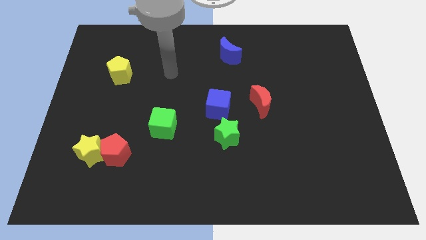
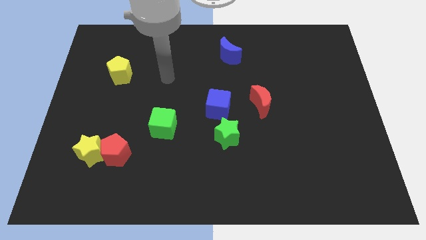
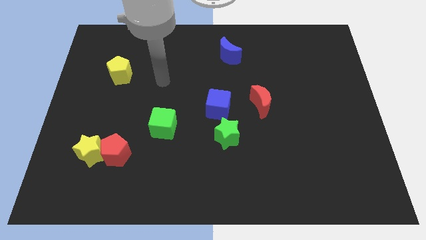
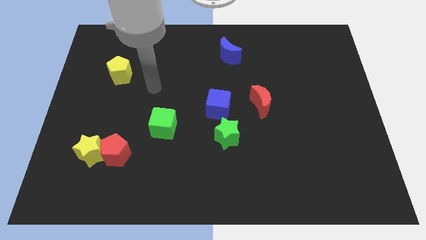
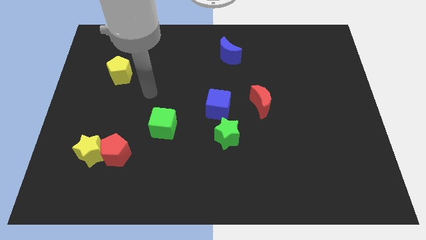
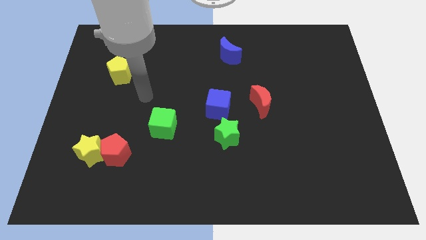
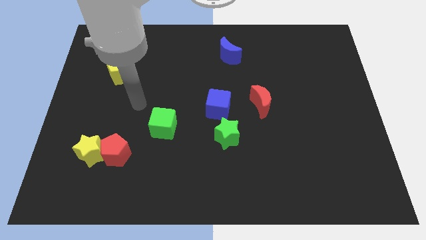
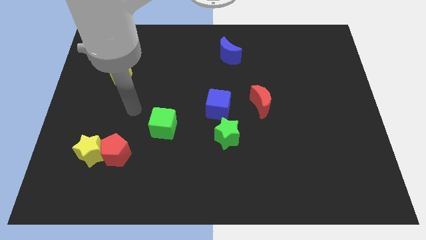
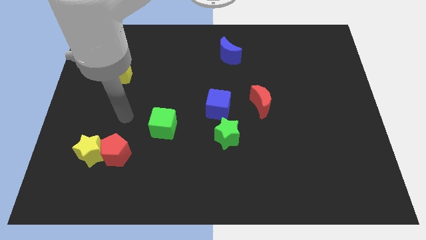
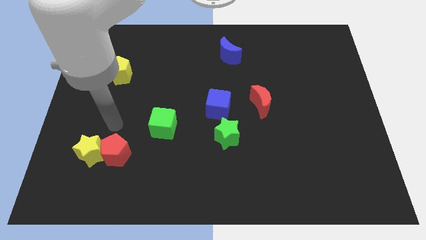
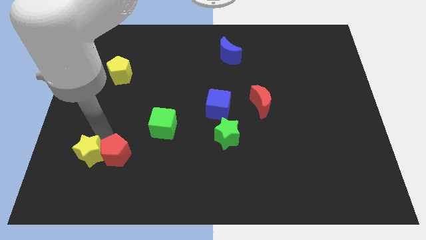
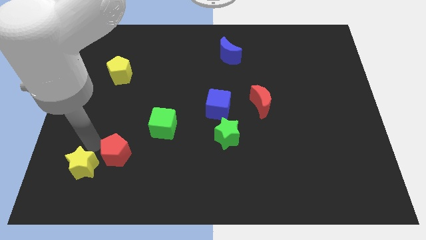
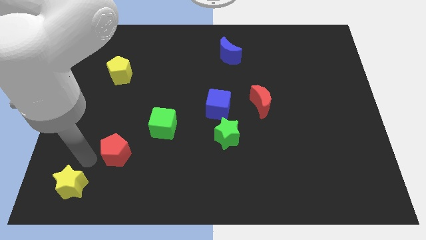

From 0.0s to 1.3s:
pull the red pentagon apart from the yellow star

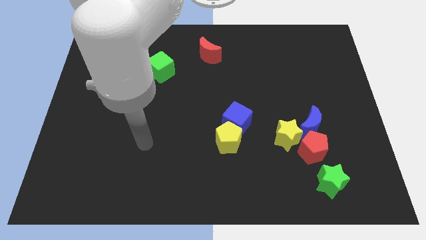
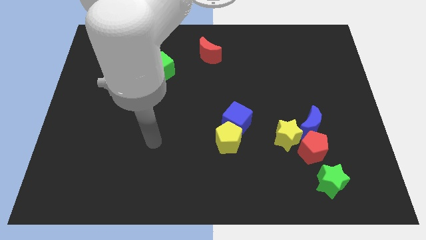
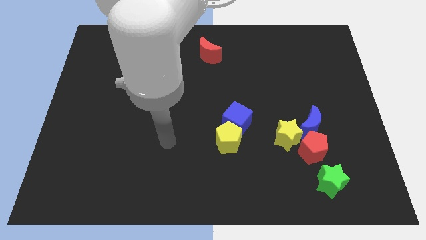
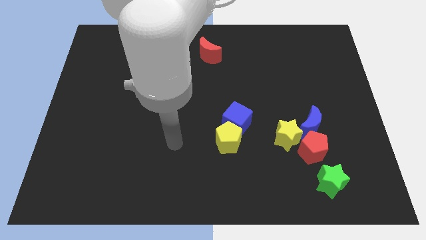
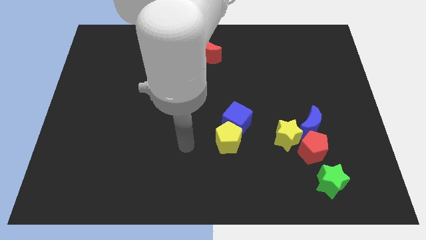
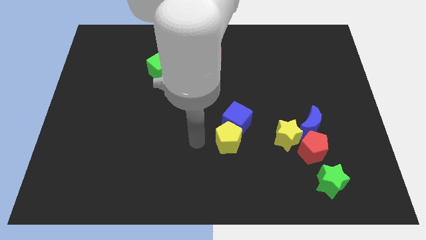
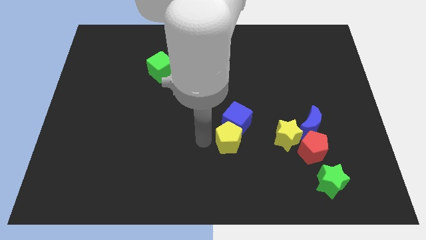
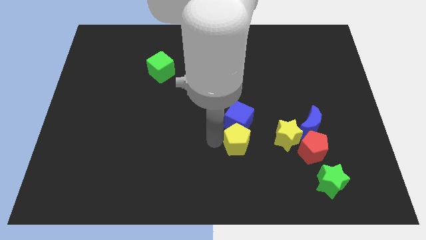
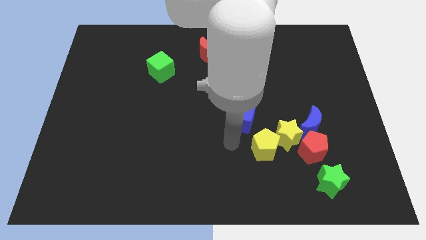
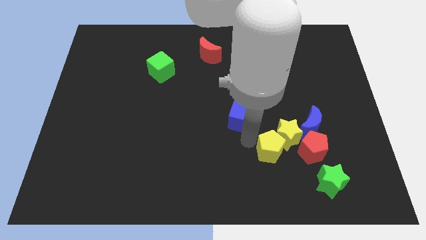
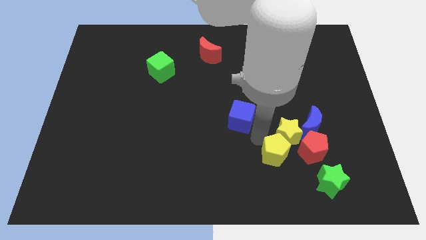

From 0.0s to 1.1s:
separate the blue cube from the yellow pentagon

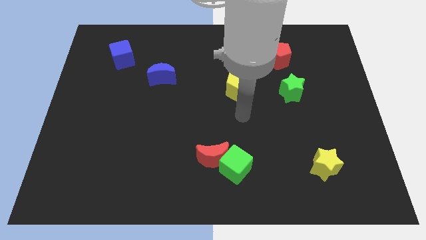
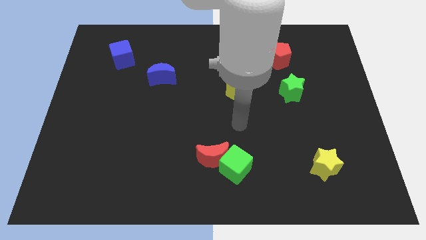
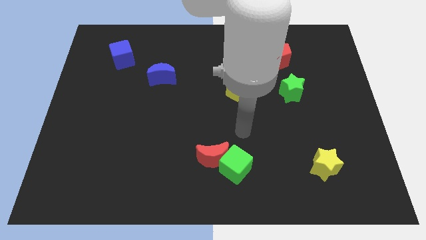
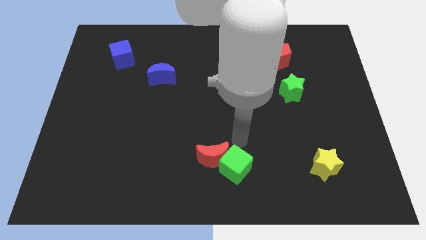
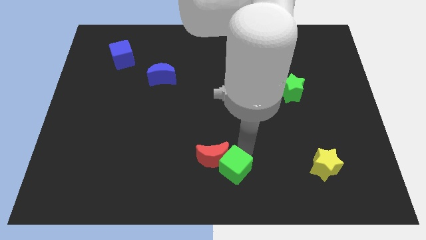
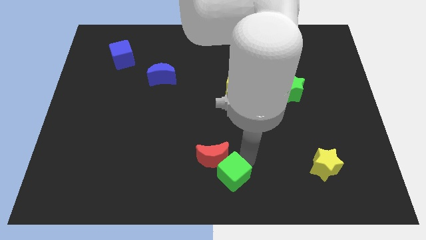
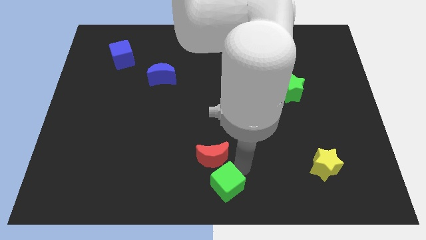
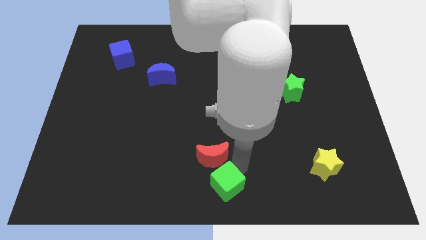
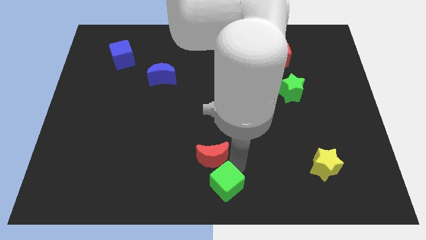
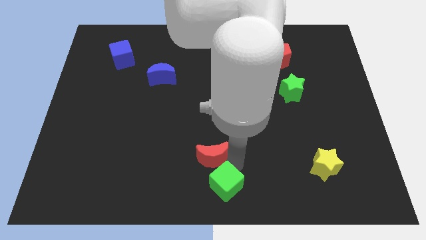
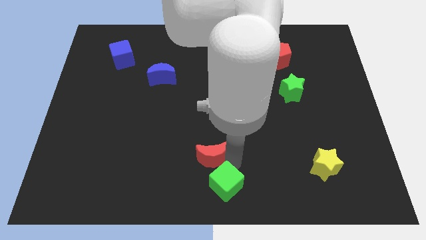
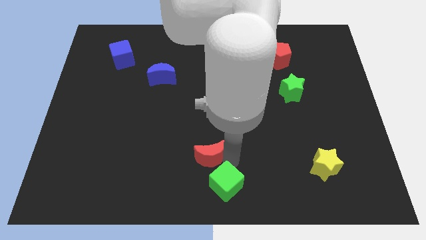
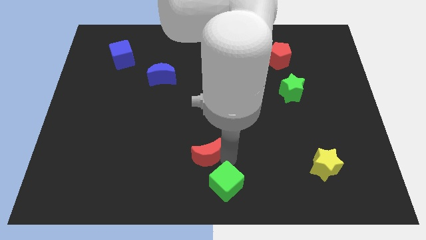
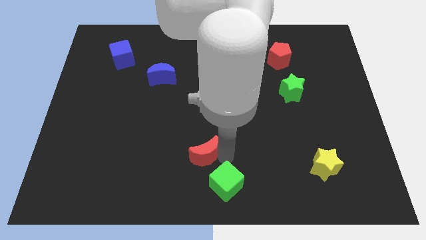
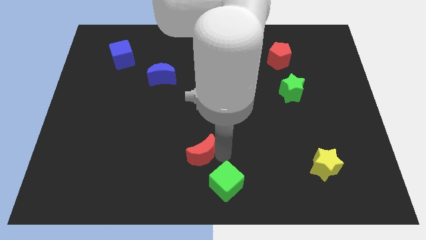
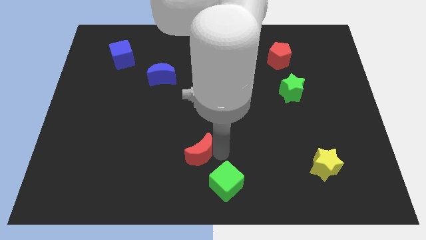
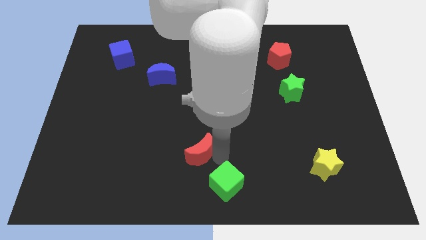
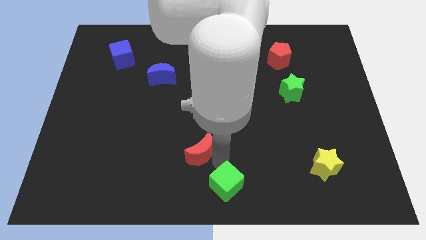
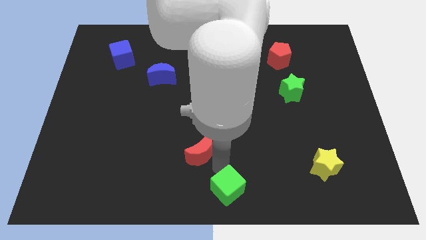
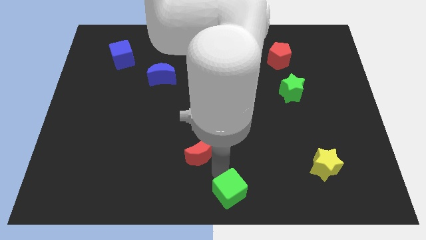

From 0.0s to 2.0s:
move the red moon away from the green cube

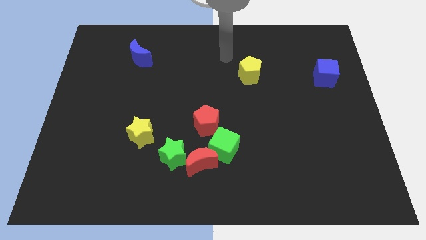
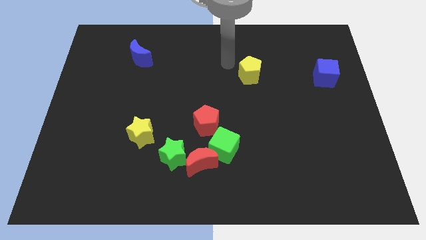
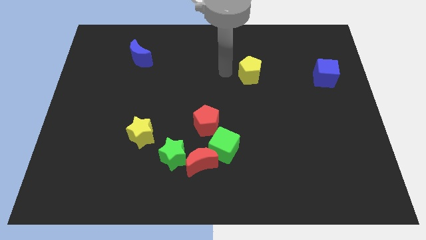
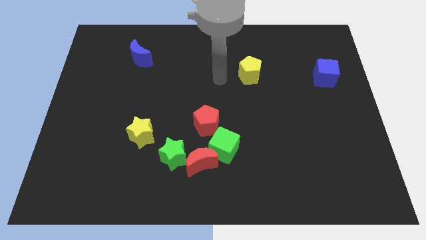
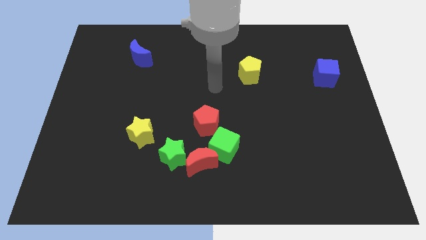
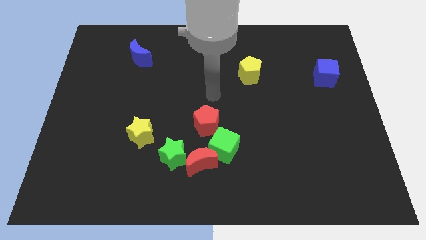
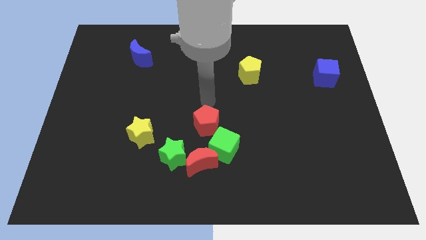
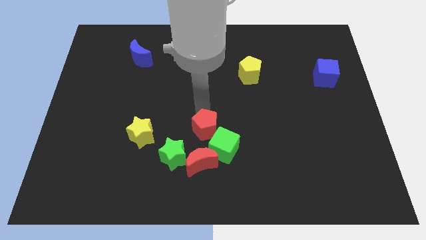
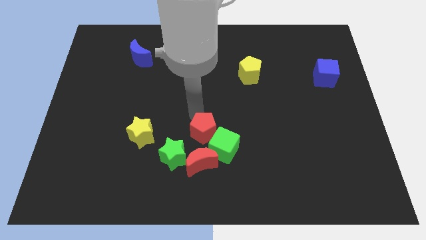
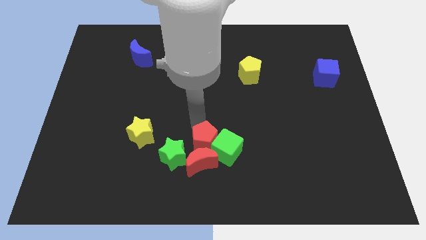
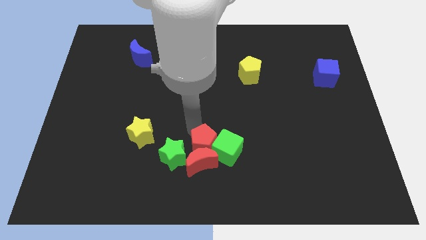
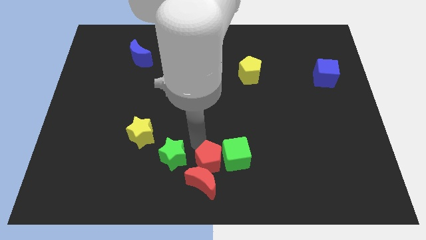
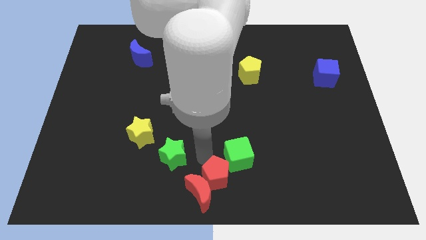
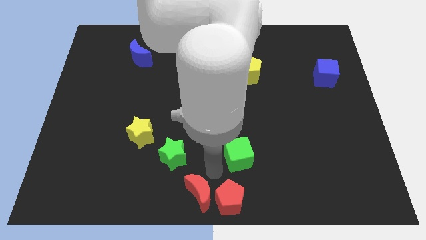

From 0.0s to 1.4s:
separate the green cube from the red moon and red pentagon

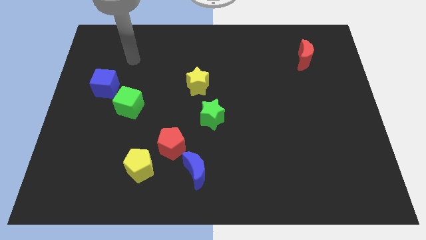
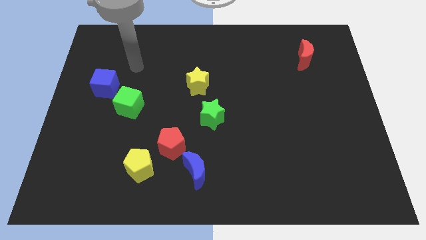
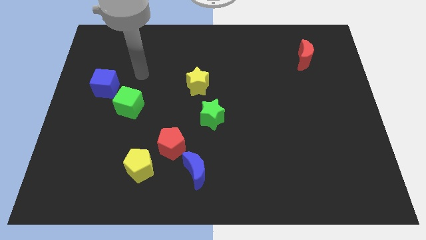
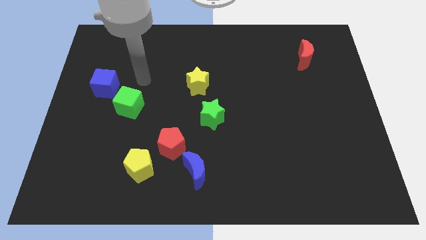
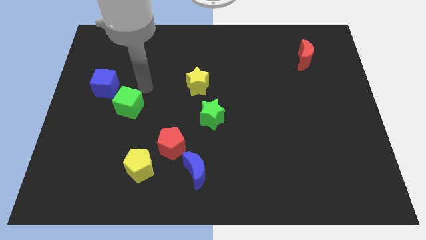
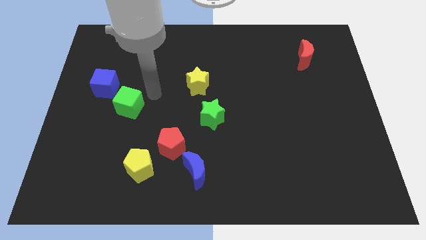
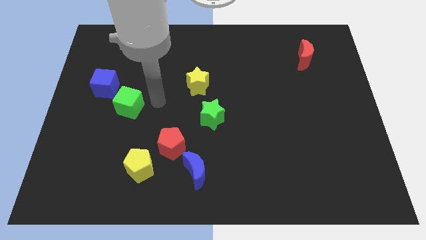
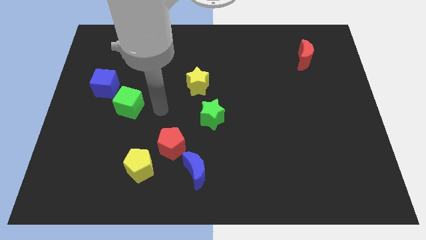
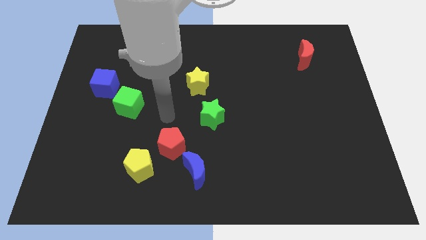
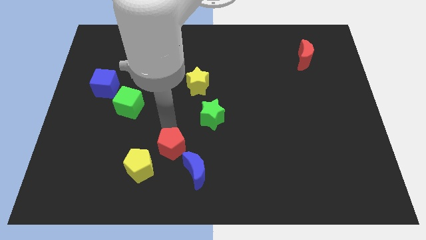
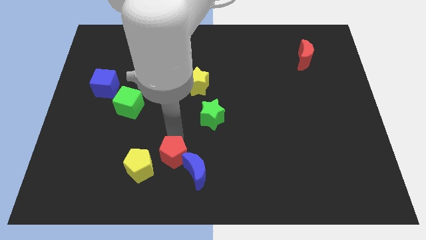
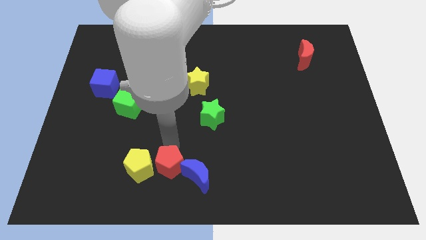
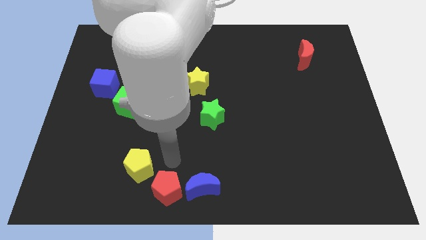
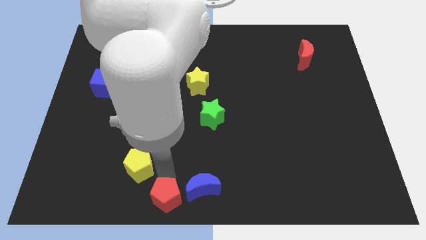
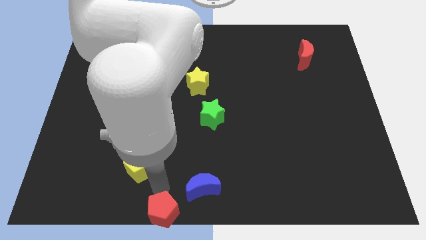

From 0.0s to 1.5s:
move the yellow pentagon away from the red pentagon

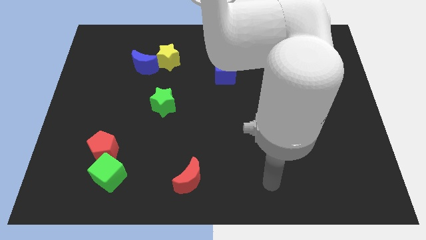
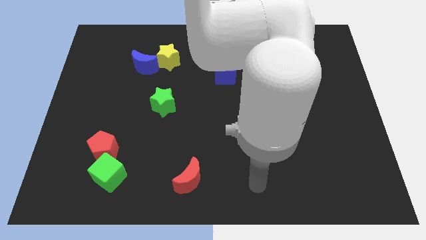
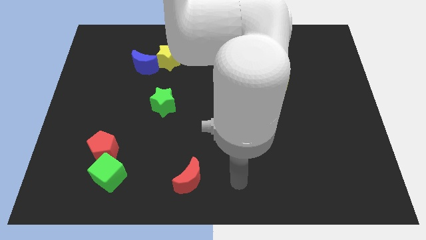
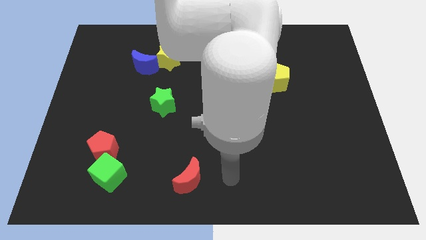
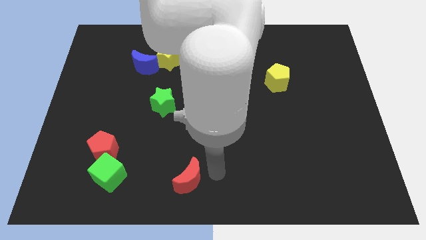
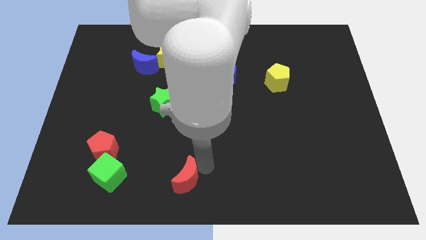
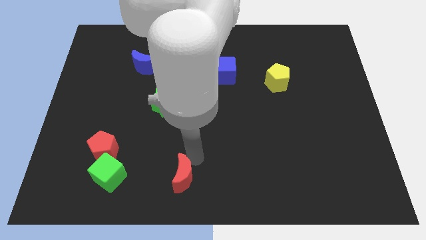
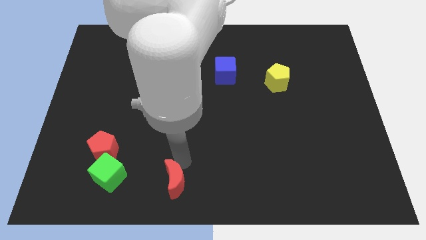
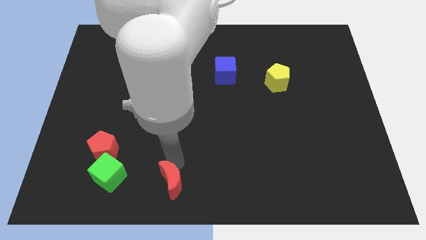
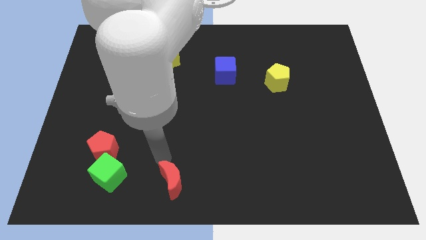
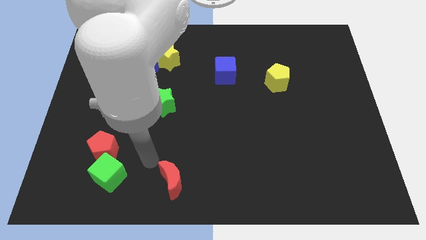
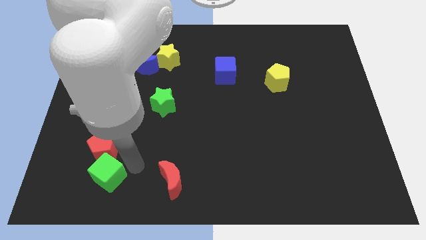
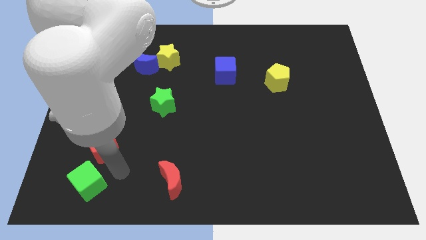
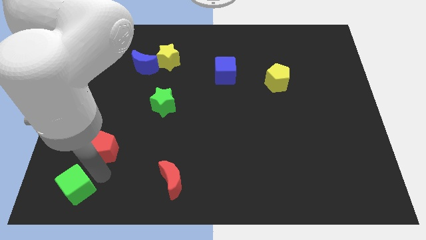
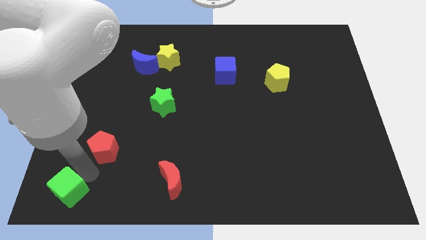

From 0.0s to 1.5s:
move the red pentagon away from the green cube

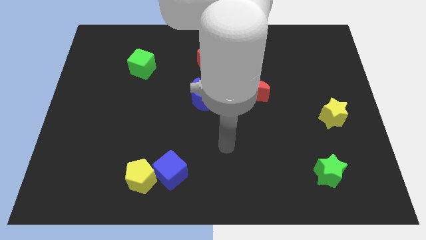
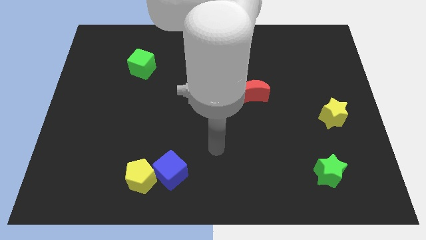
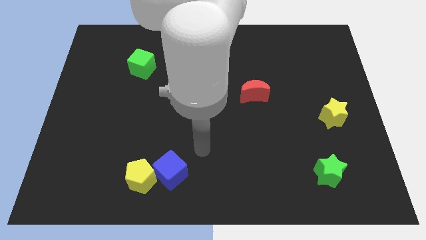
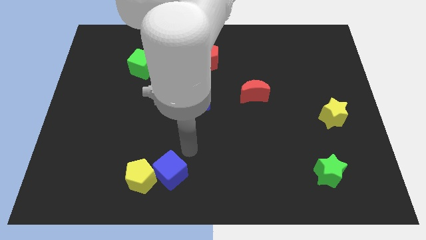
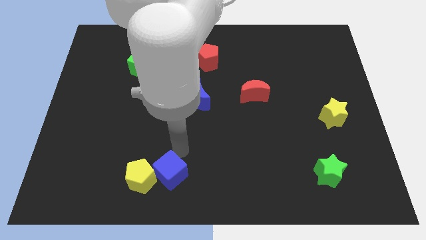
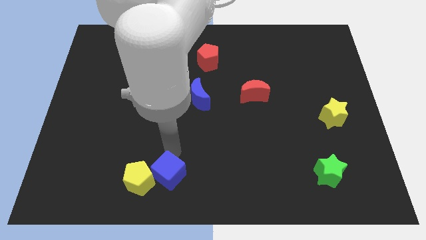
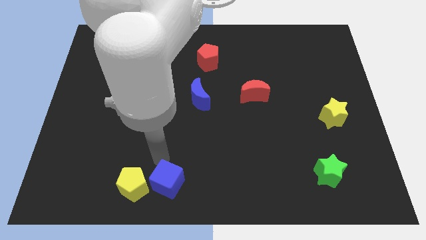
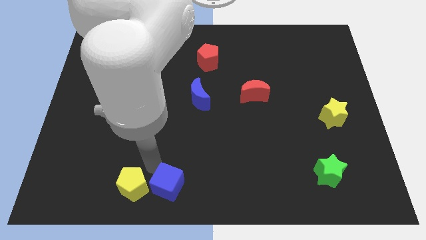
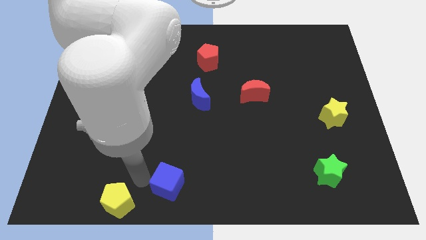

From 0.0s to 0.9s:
pull the blue cube apart from the yellow pentagon
